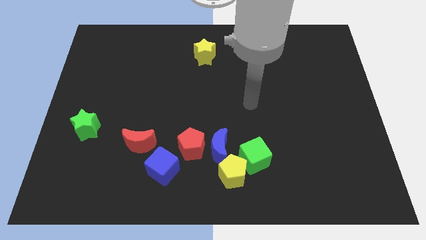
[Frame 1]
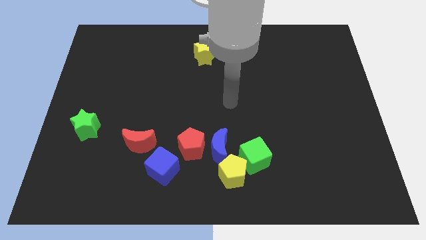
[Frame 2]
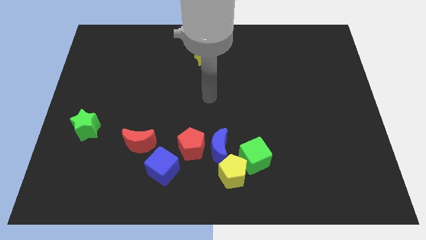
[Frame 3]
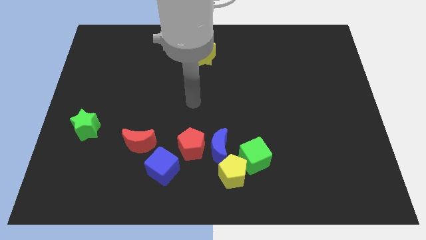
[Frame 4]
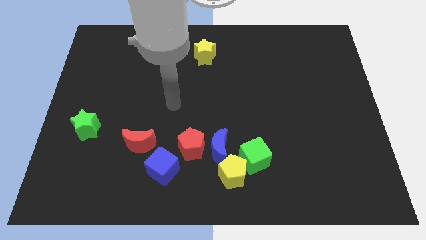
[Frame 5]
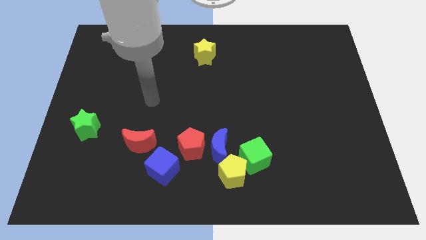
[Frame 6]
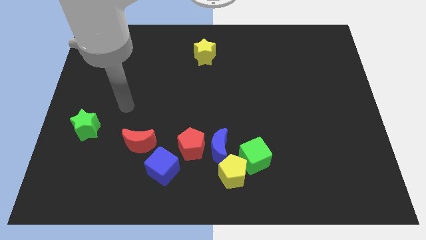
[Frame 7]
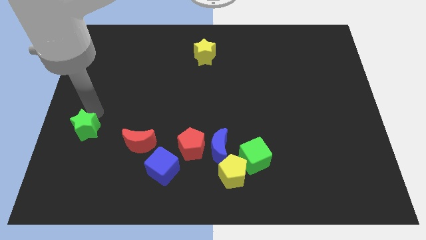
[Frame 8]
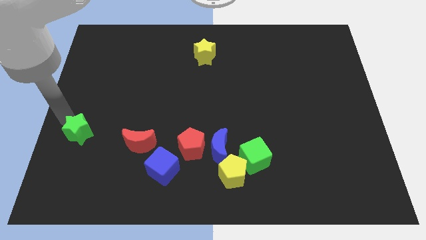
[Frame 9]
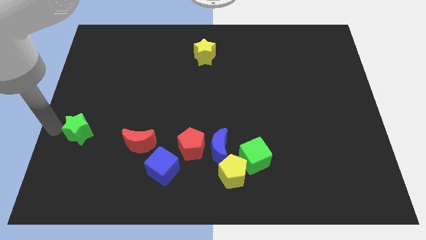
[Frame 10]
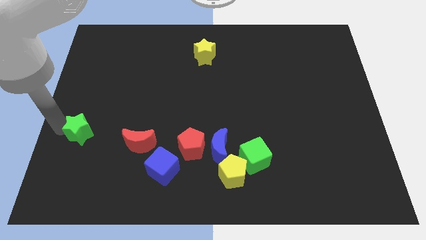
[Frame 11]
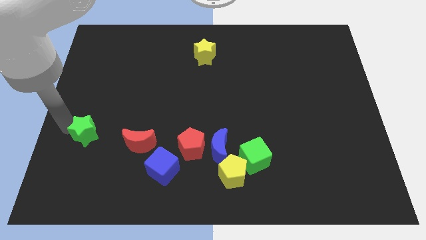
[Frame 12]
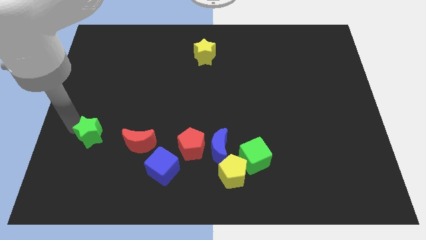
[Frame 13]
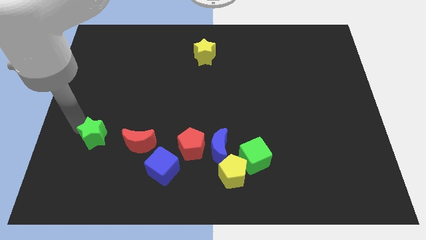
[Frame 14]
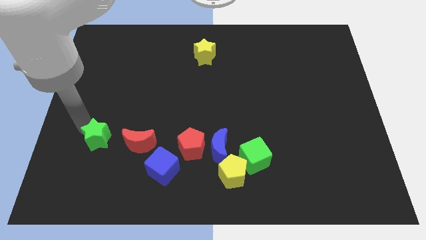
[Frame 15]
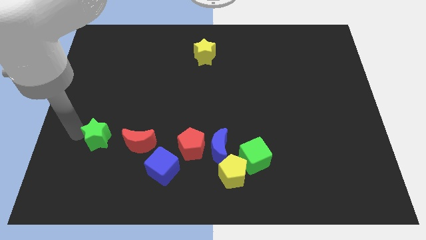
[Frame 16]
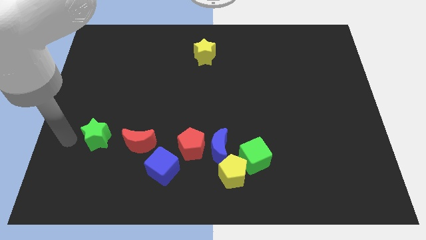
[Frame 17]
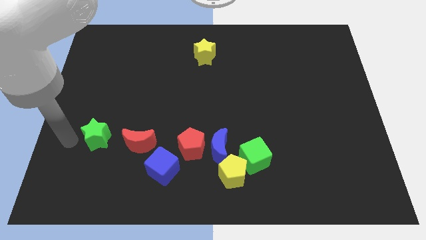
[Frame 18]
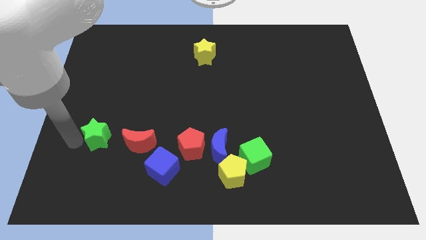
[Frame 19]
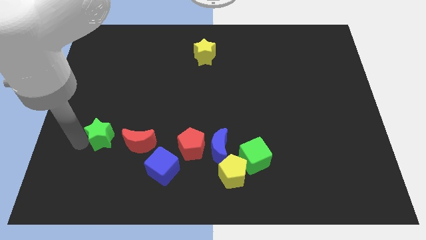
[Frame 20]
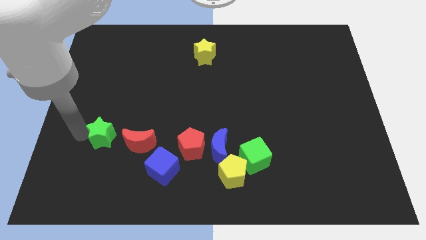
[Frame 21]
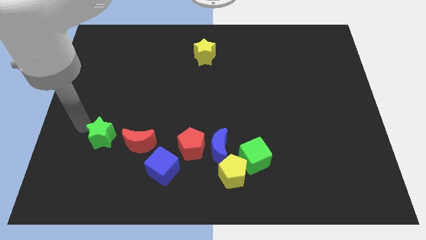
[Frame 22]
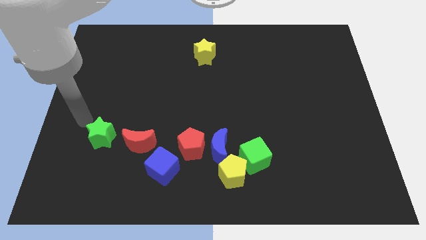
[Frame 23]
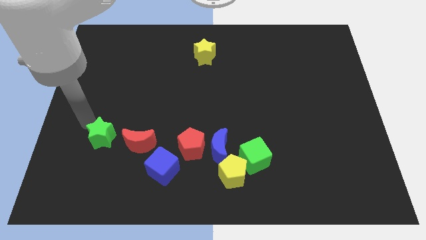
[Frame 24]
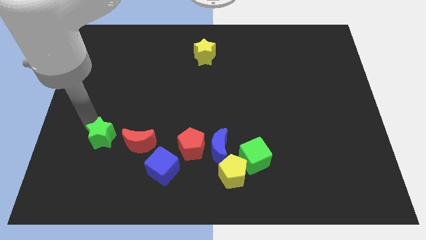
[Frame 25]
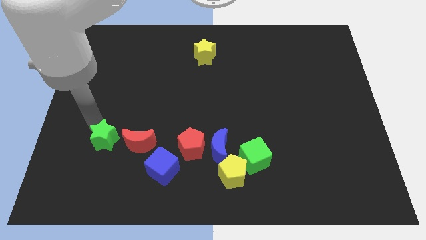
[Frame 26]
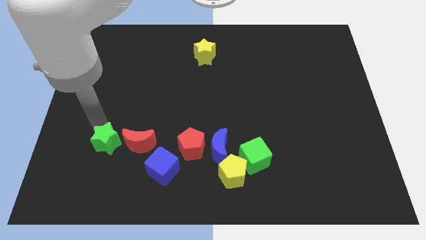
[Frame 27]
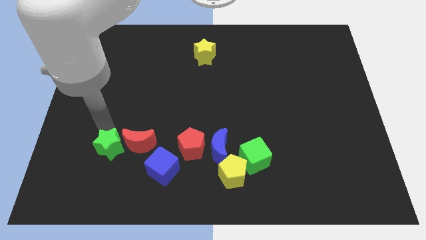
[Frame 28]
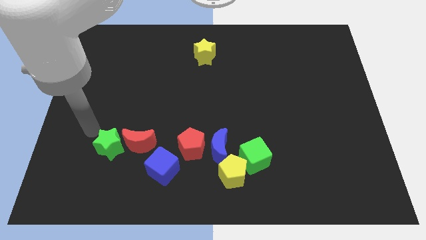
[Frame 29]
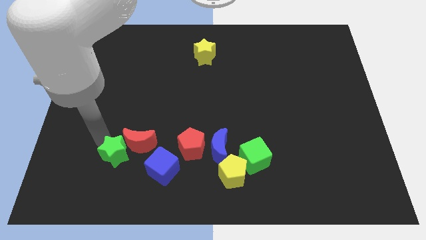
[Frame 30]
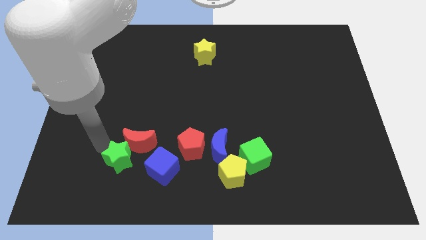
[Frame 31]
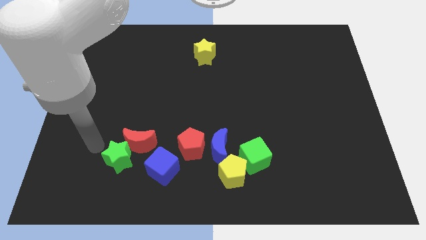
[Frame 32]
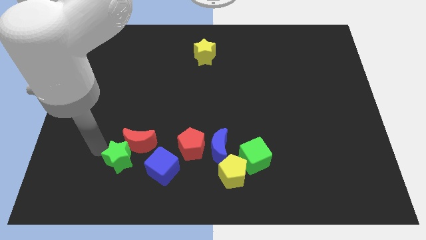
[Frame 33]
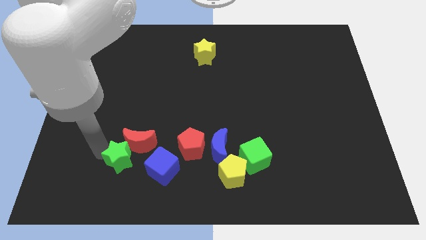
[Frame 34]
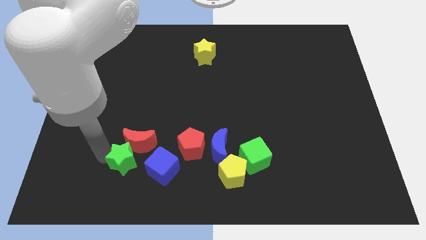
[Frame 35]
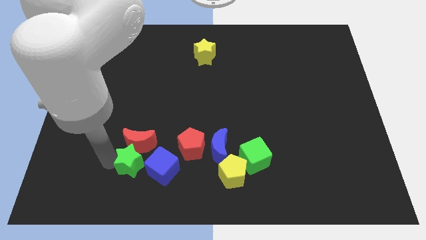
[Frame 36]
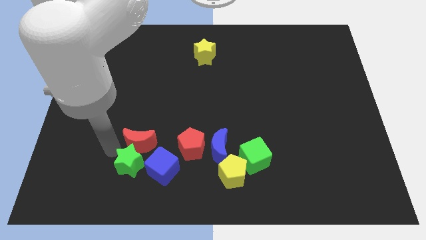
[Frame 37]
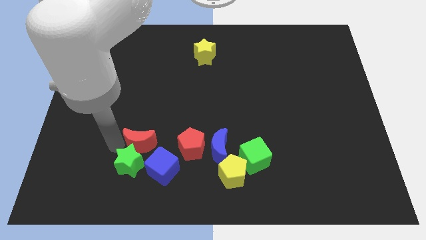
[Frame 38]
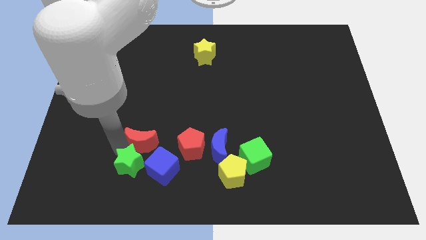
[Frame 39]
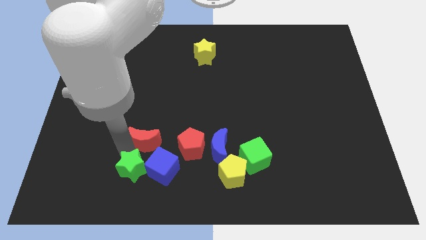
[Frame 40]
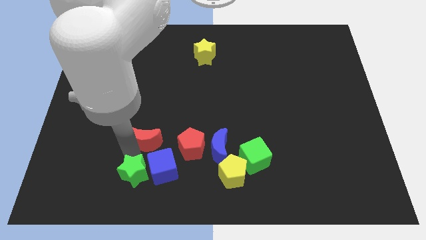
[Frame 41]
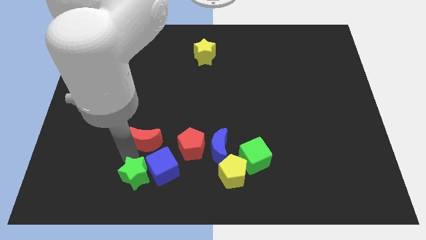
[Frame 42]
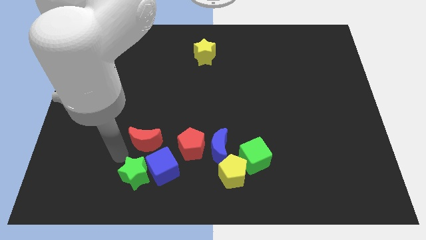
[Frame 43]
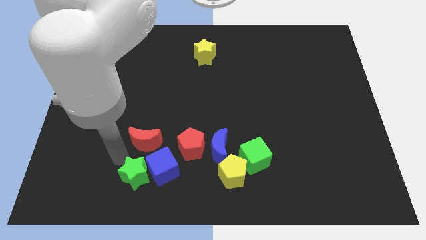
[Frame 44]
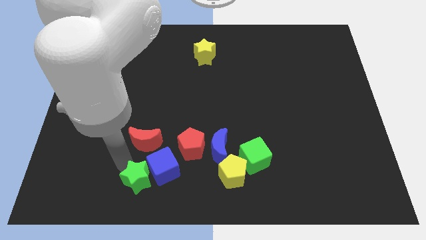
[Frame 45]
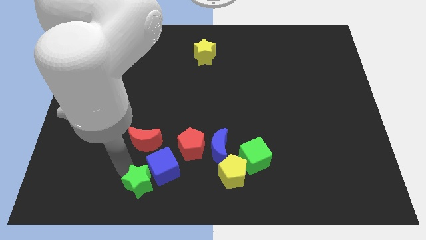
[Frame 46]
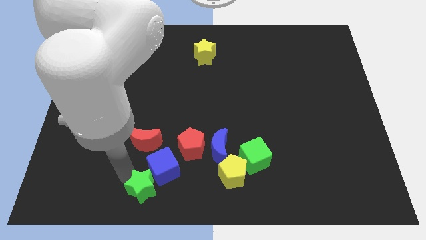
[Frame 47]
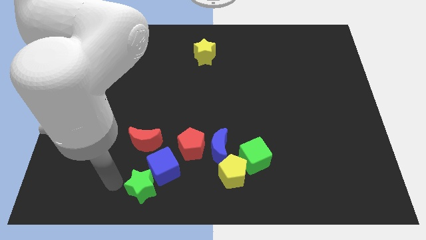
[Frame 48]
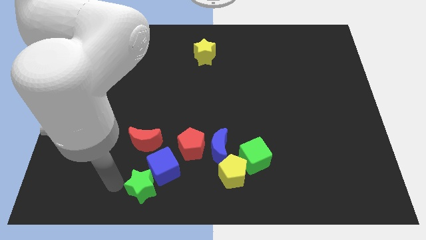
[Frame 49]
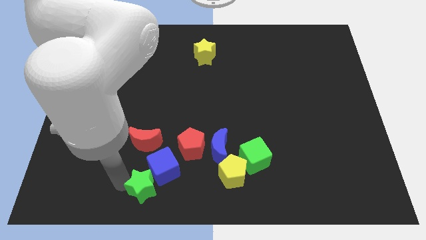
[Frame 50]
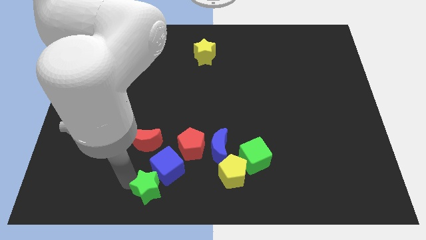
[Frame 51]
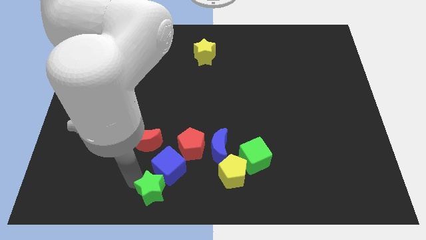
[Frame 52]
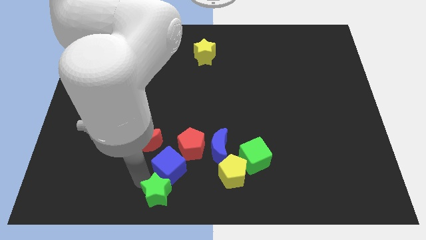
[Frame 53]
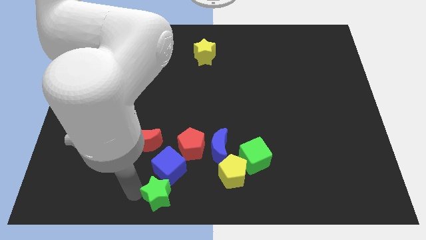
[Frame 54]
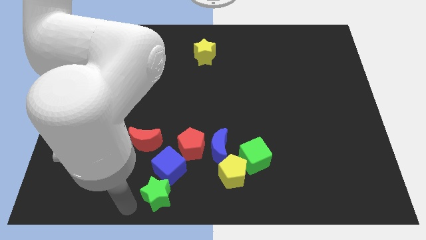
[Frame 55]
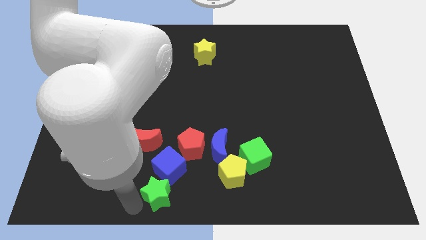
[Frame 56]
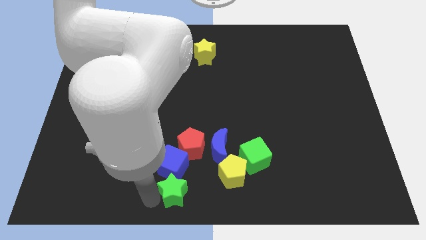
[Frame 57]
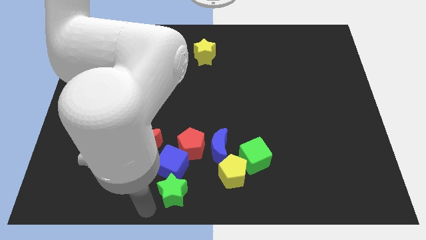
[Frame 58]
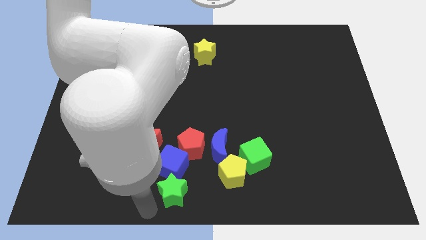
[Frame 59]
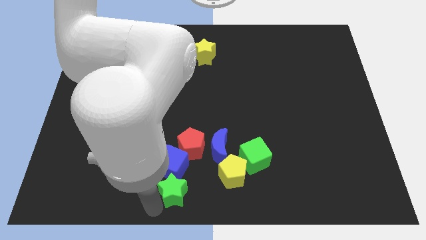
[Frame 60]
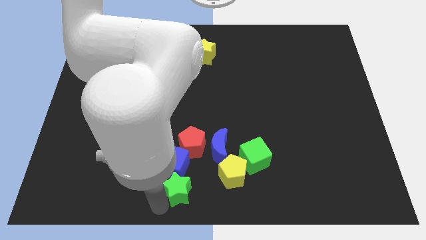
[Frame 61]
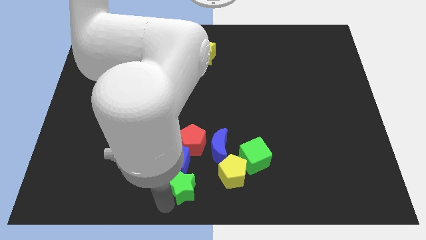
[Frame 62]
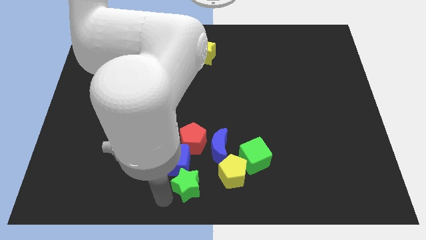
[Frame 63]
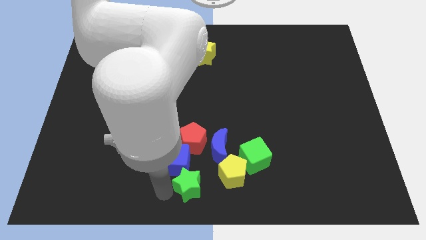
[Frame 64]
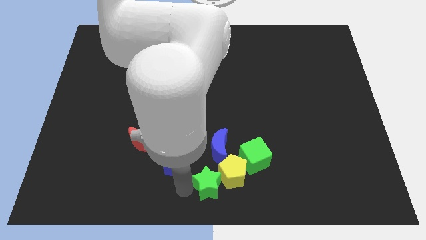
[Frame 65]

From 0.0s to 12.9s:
push the green star close to the yellow pentagon
